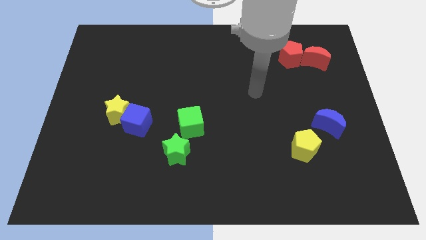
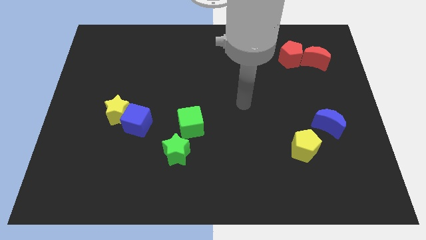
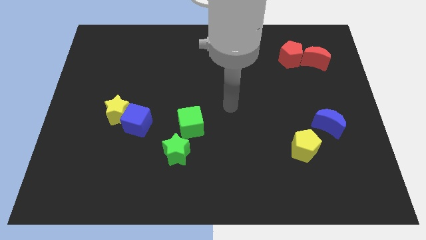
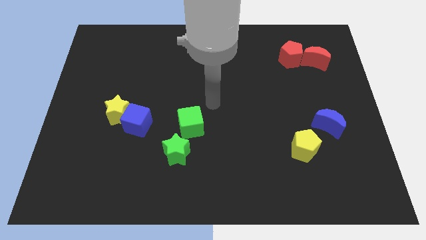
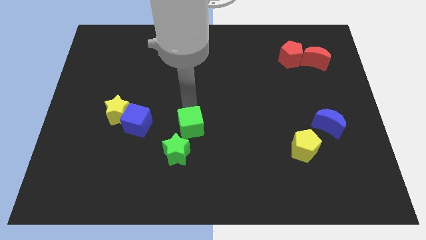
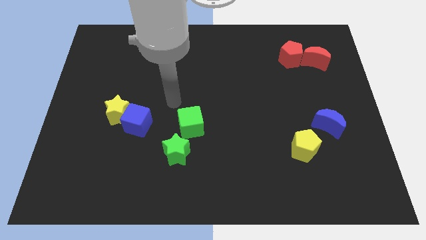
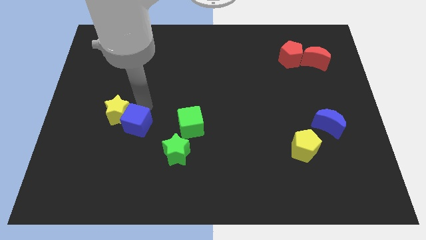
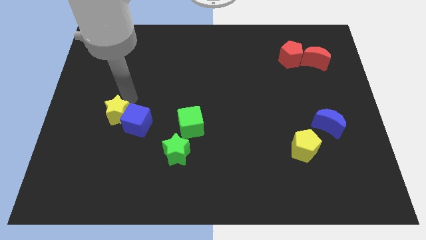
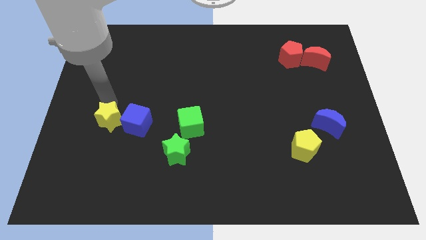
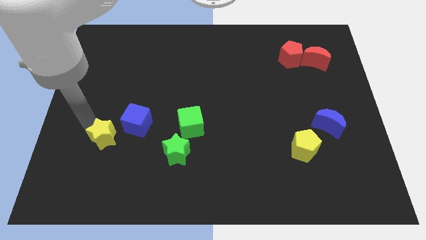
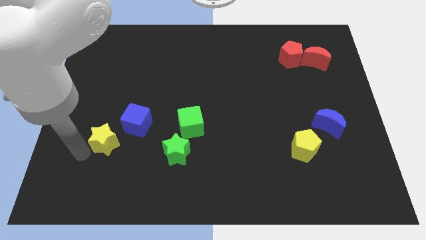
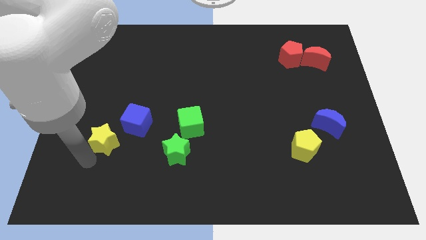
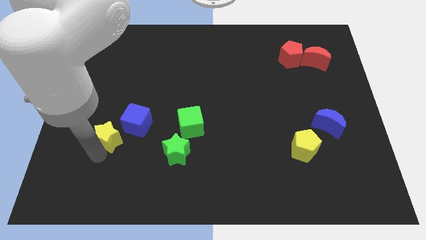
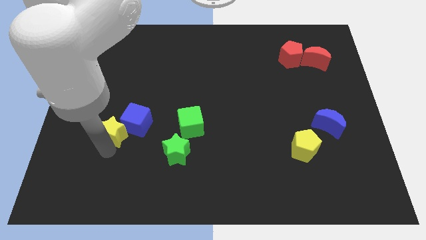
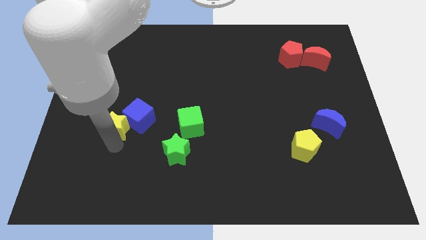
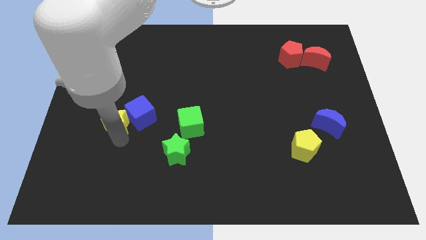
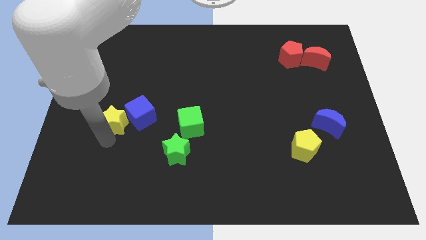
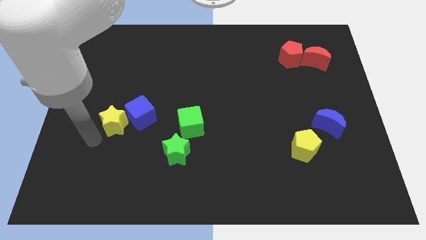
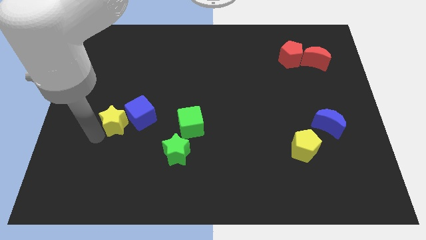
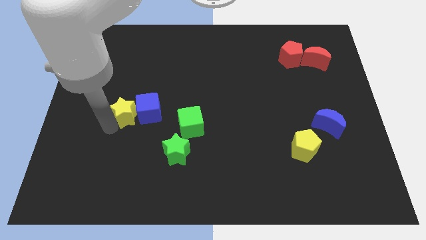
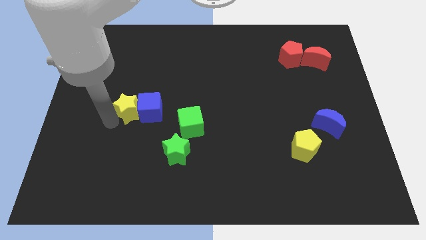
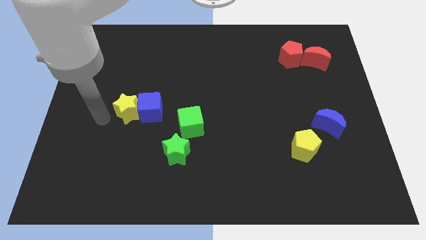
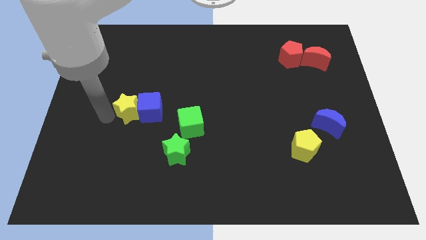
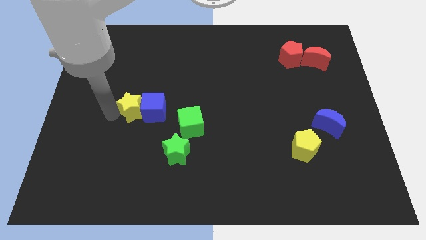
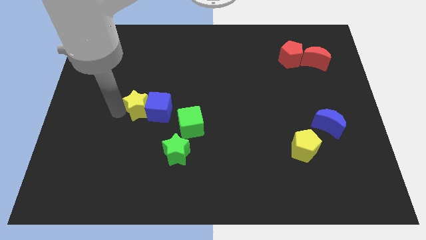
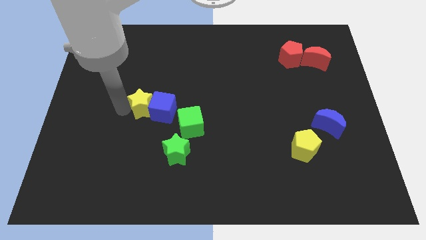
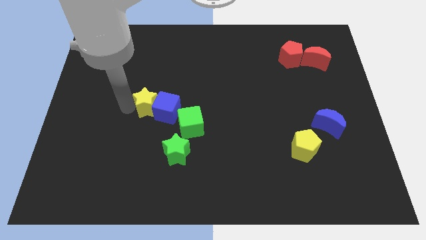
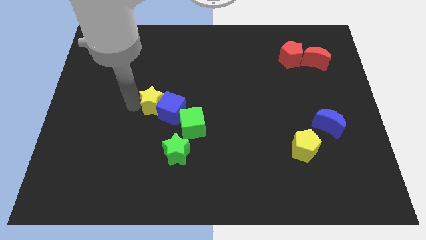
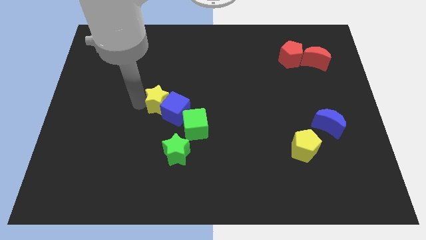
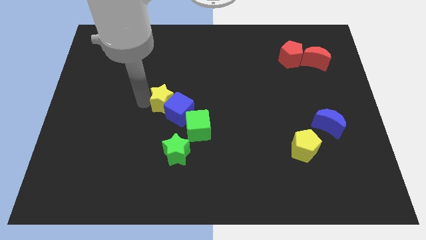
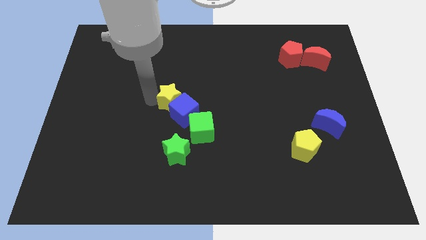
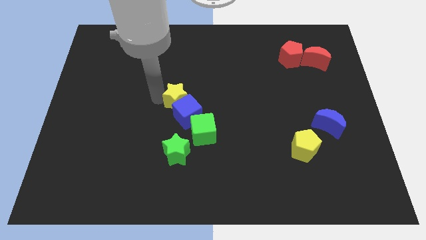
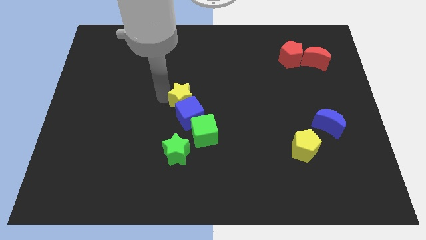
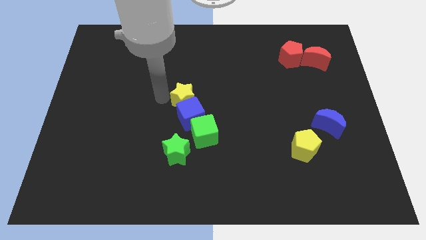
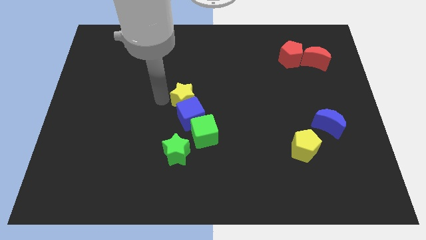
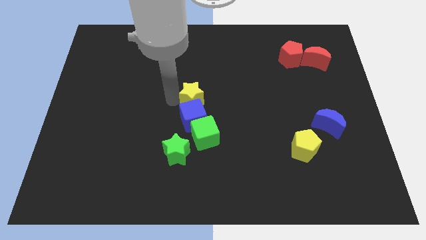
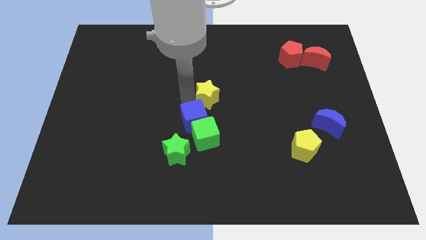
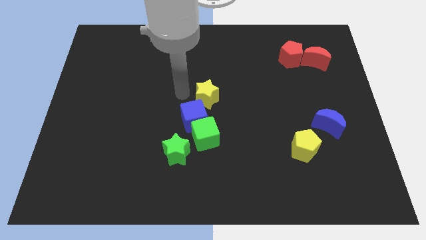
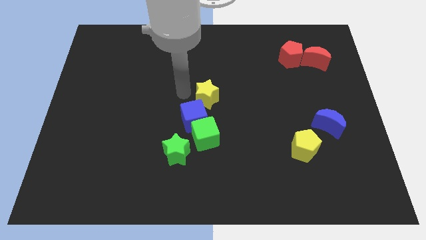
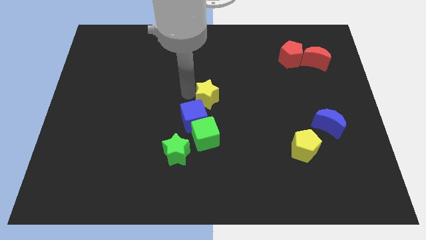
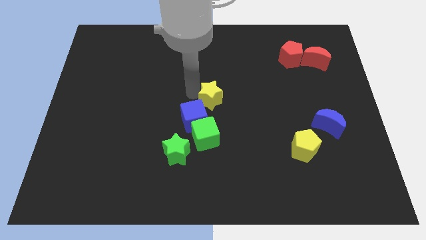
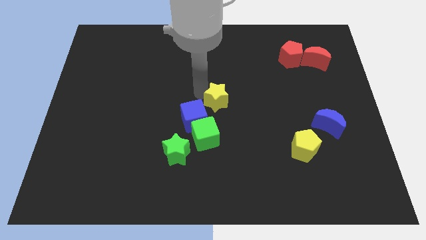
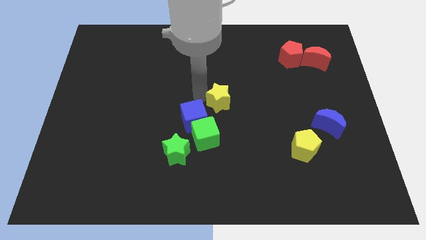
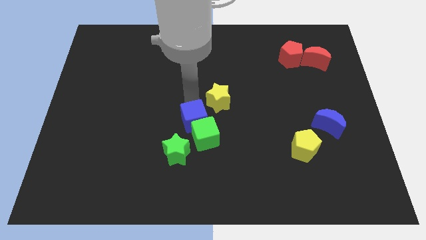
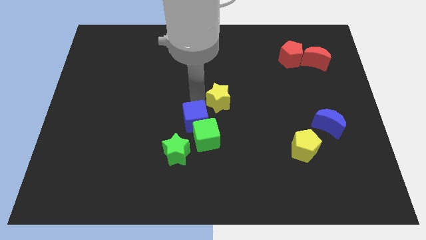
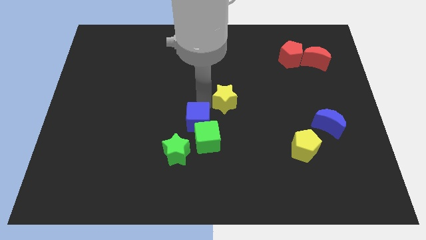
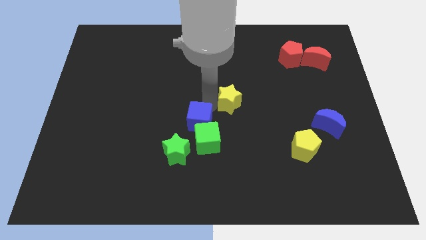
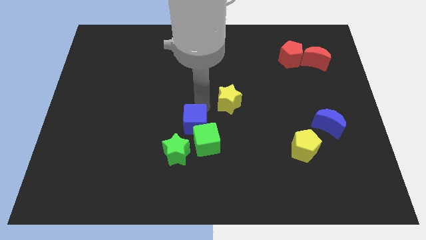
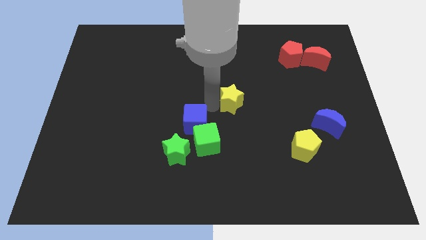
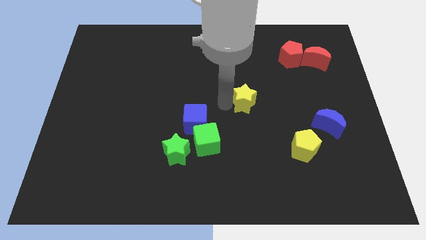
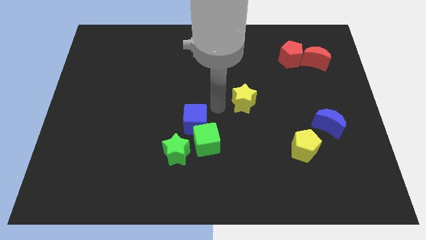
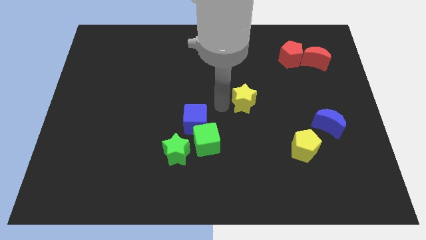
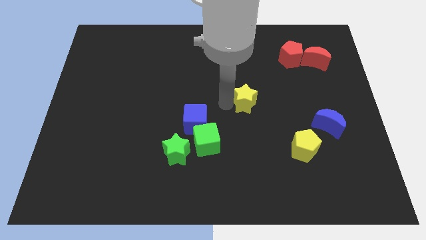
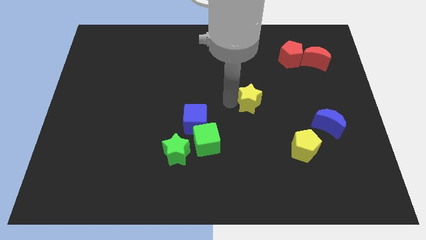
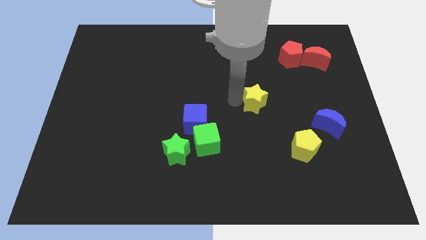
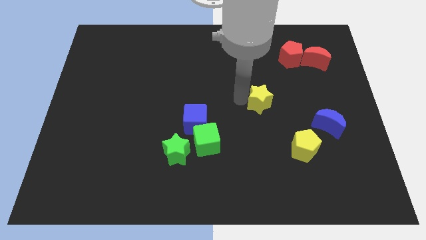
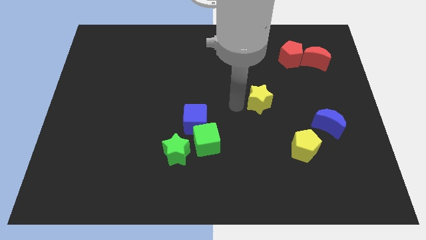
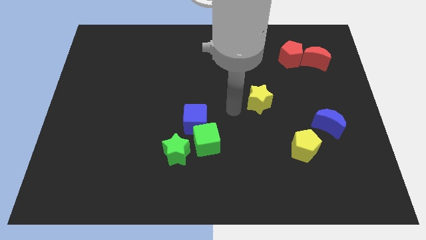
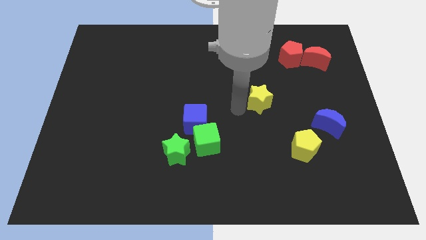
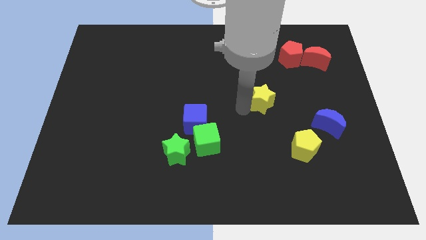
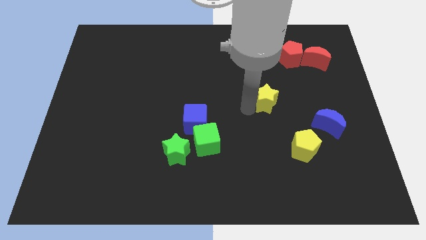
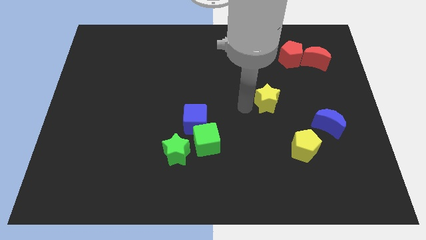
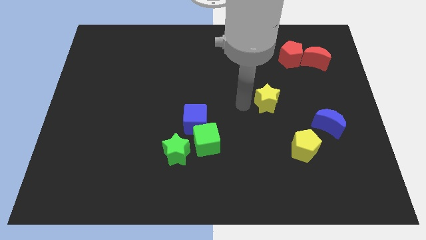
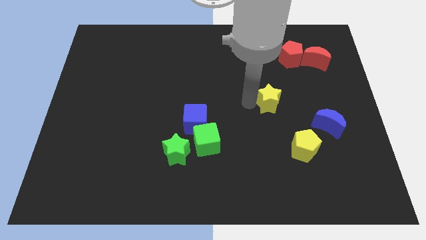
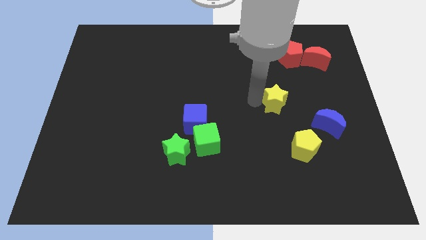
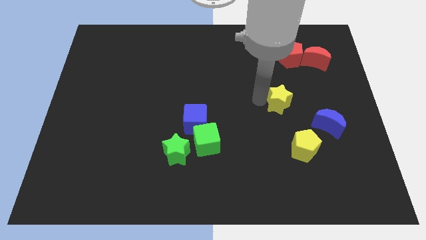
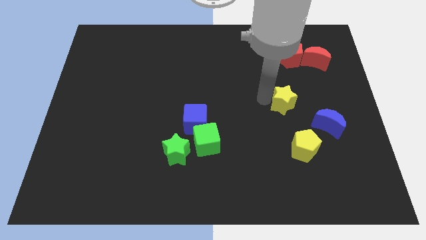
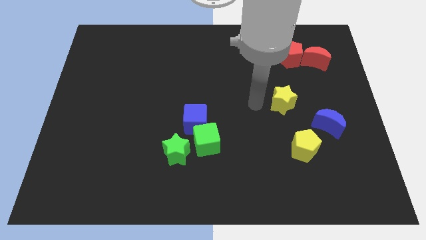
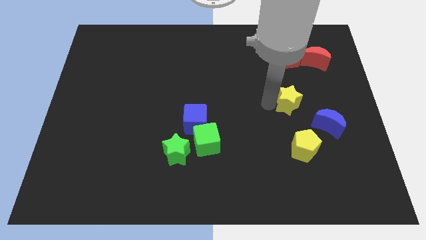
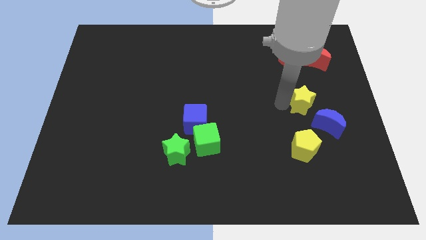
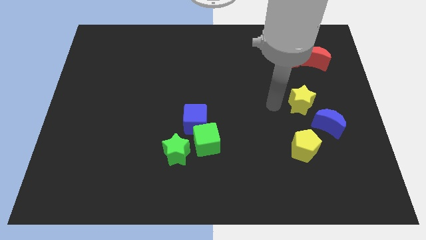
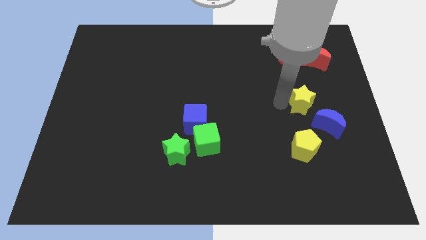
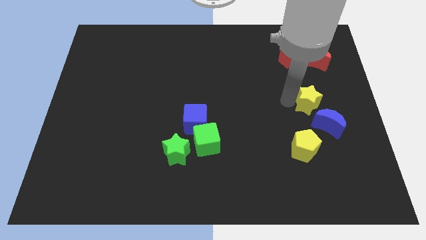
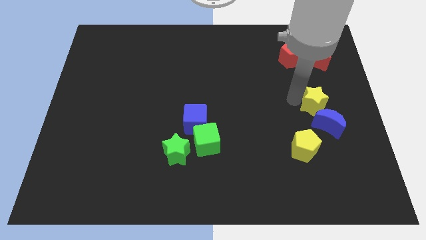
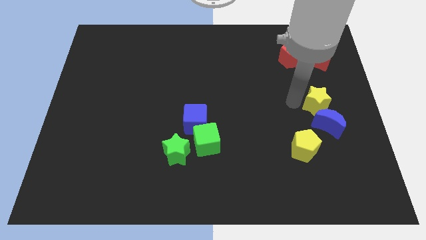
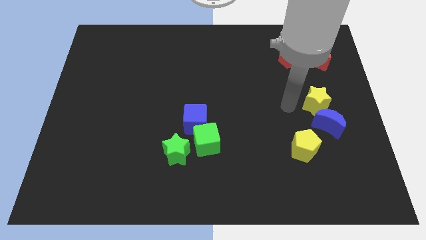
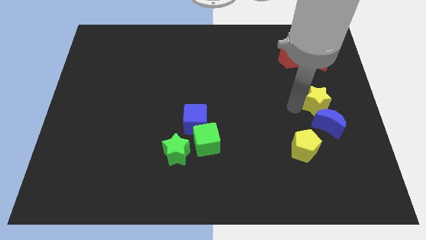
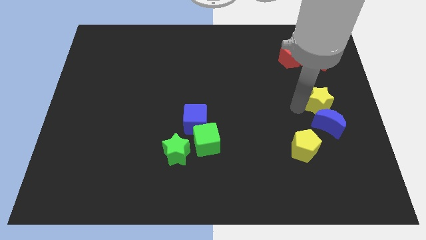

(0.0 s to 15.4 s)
put the yellow star to the right side
